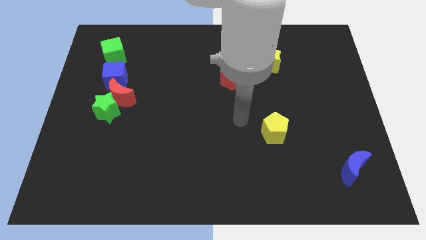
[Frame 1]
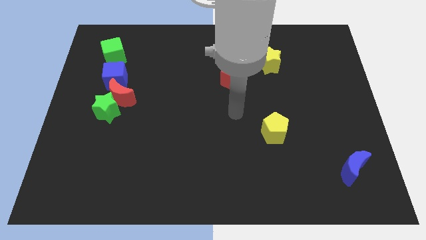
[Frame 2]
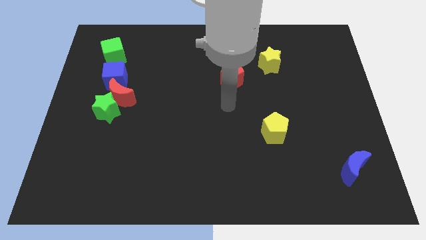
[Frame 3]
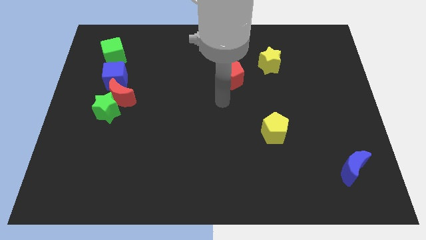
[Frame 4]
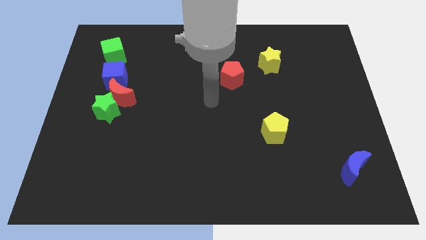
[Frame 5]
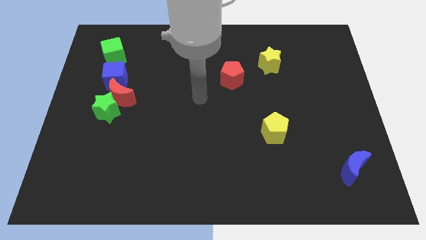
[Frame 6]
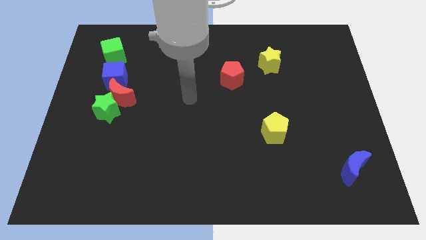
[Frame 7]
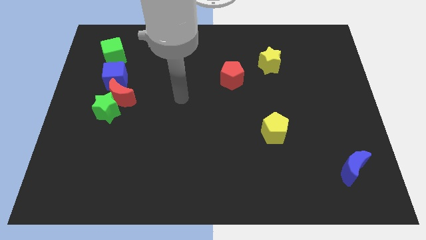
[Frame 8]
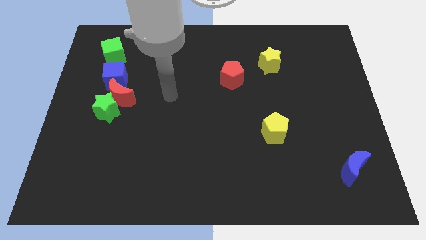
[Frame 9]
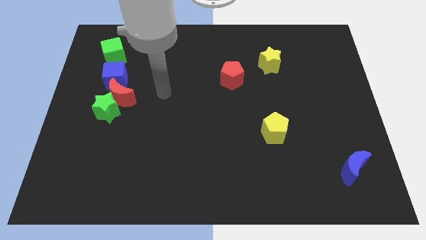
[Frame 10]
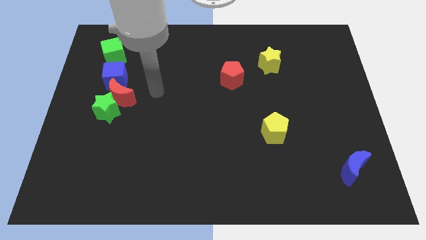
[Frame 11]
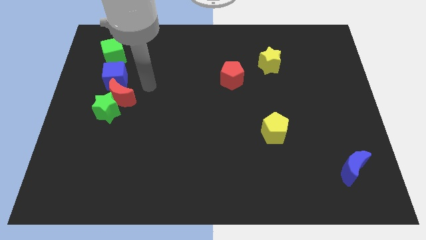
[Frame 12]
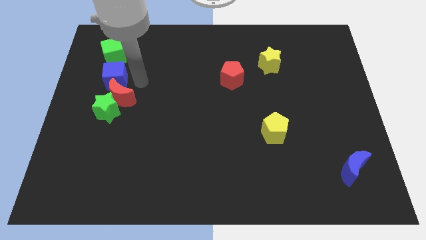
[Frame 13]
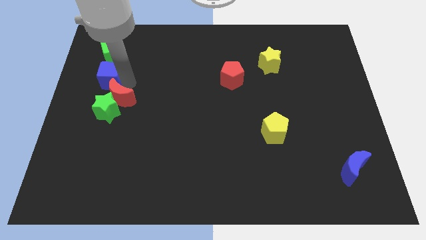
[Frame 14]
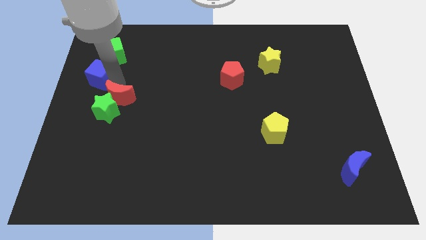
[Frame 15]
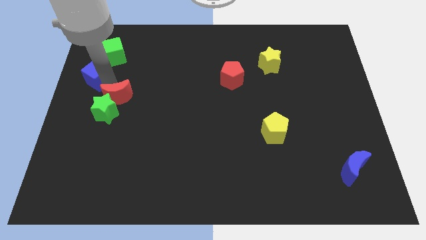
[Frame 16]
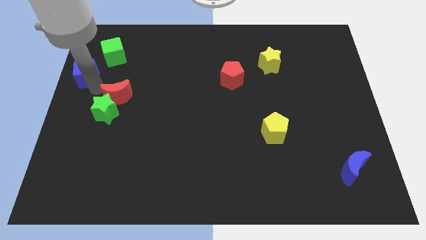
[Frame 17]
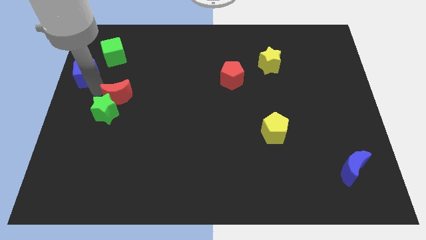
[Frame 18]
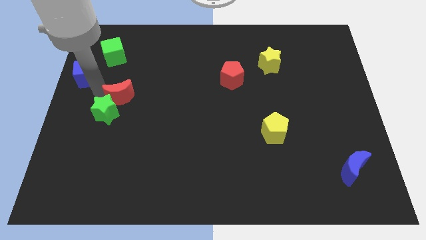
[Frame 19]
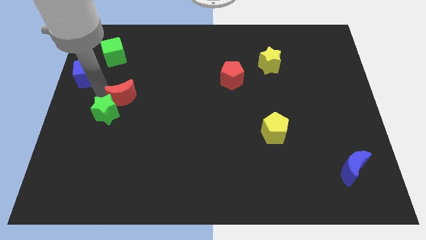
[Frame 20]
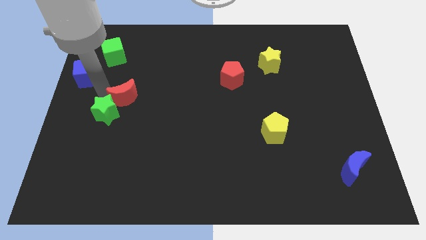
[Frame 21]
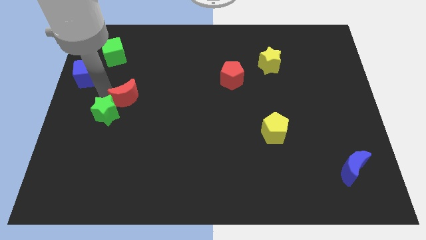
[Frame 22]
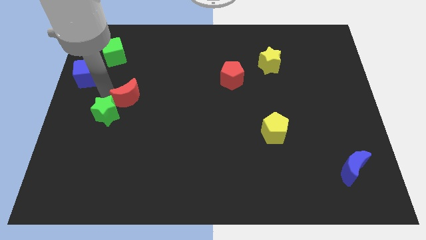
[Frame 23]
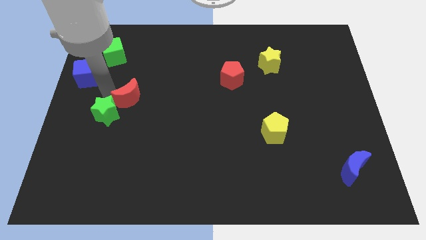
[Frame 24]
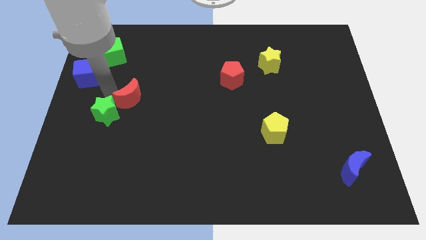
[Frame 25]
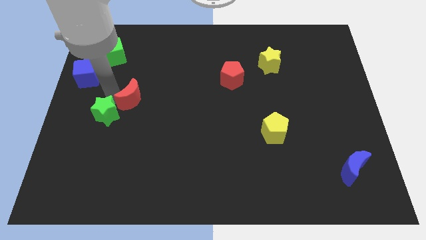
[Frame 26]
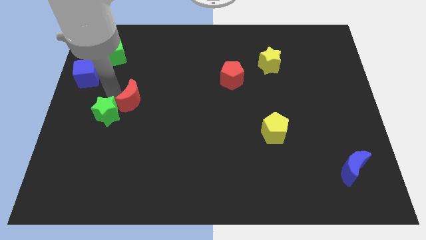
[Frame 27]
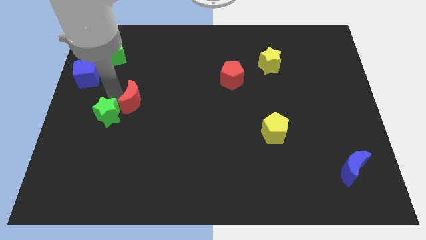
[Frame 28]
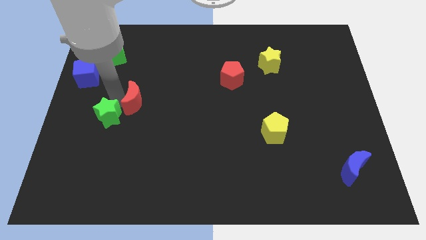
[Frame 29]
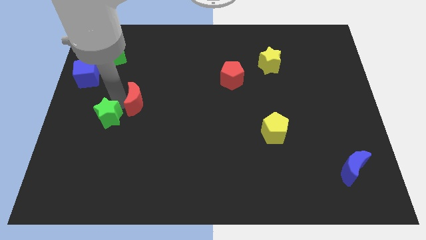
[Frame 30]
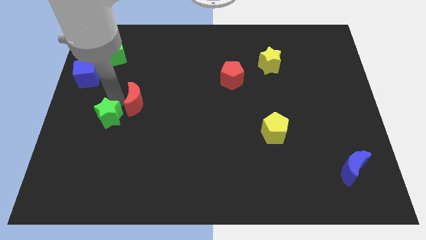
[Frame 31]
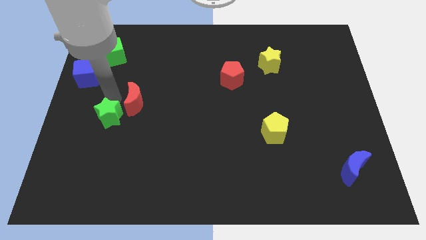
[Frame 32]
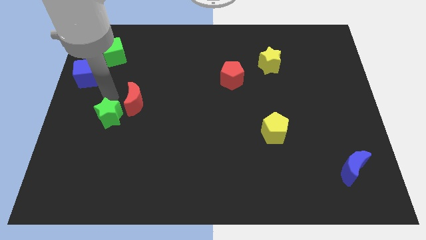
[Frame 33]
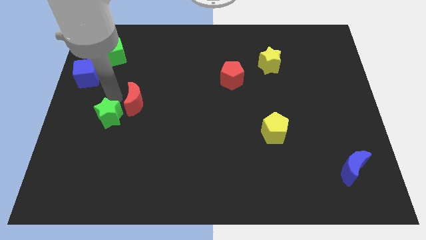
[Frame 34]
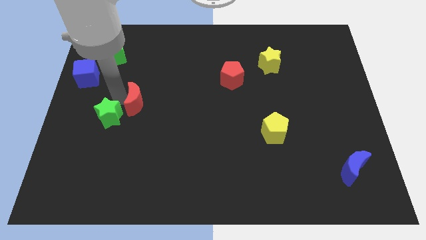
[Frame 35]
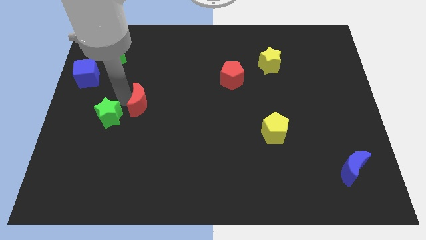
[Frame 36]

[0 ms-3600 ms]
move the red moon away from the green star and blue cube

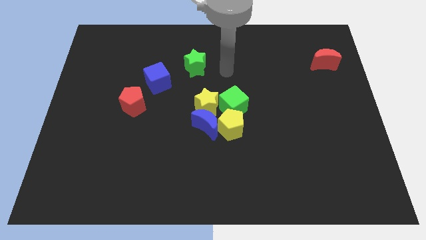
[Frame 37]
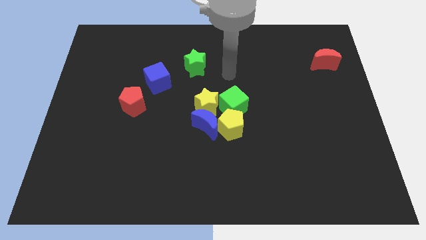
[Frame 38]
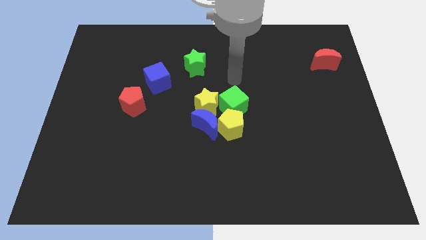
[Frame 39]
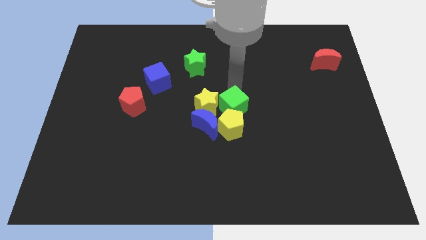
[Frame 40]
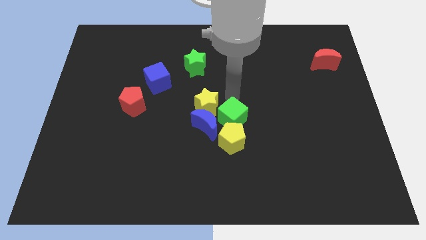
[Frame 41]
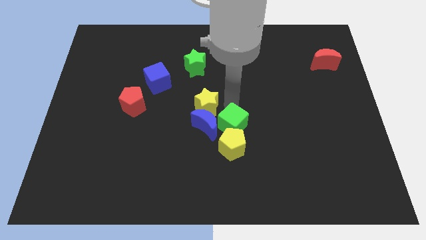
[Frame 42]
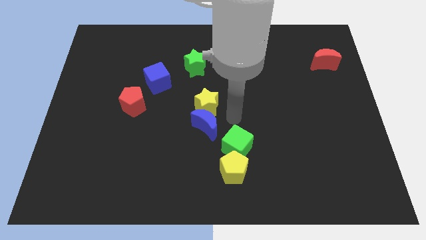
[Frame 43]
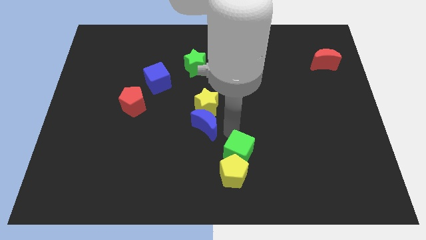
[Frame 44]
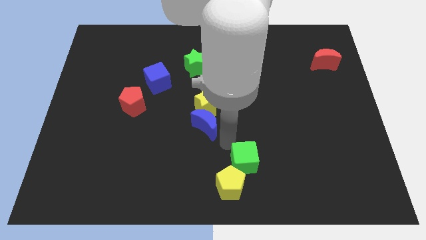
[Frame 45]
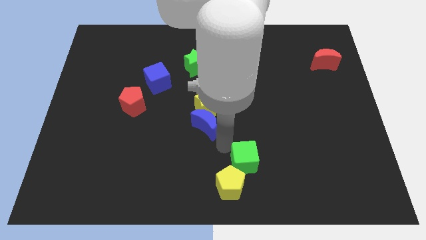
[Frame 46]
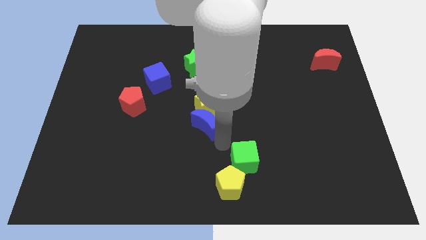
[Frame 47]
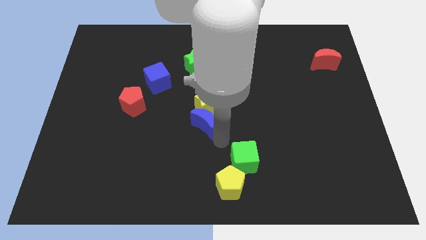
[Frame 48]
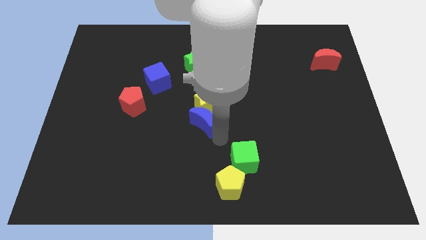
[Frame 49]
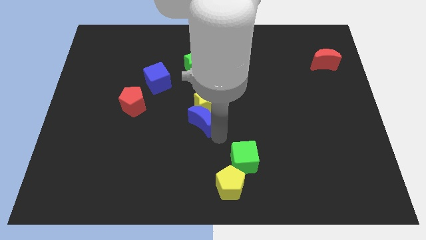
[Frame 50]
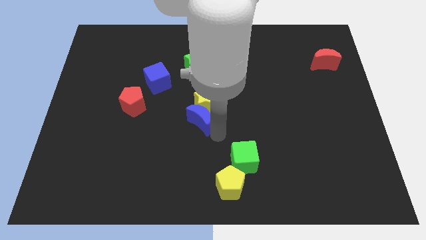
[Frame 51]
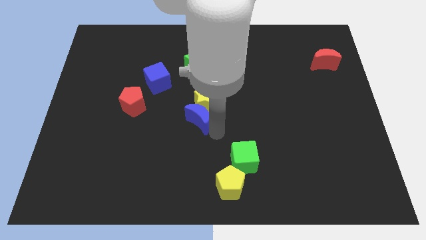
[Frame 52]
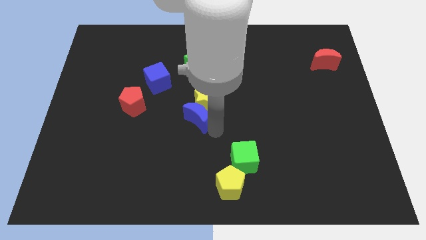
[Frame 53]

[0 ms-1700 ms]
pull the blue moon apart from the group

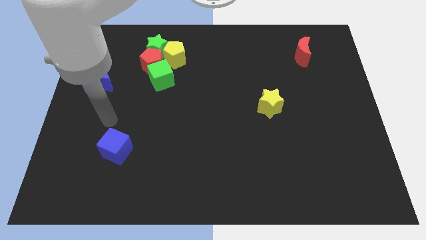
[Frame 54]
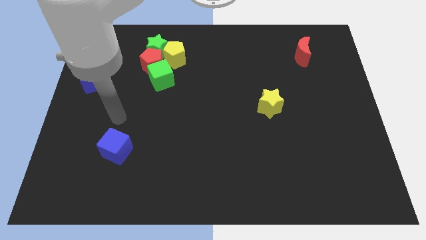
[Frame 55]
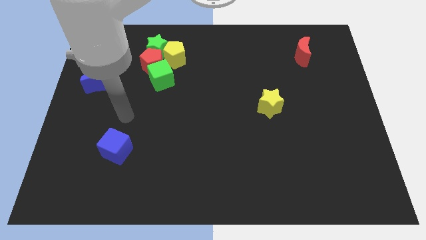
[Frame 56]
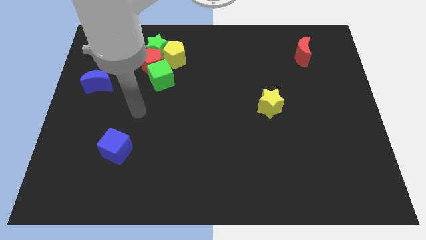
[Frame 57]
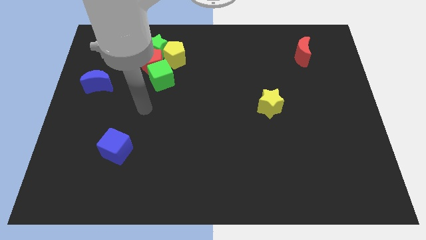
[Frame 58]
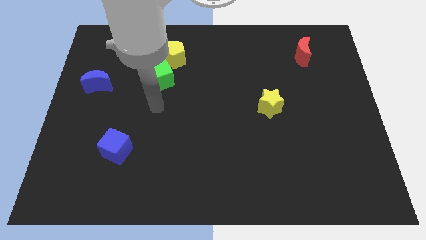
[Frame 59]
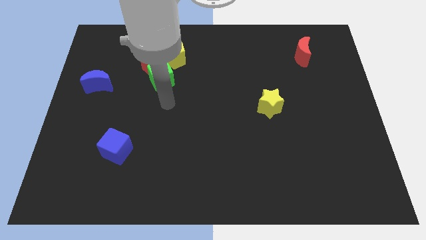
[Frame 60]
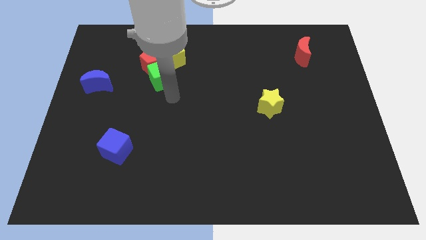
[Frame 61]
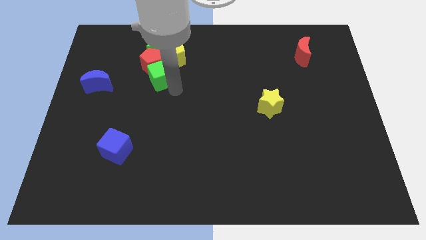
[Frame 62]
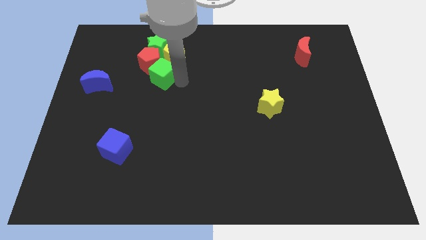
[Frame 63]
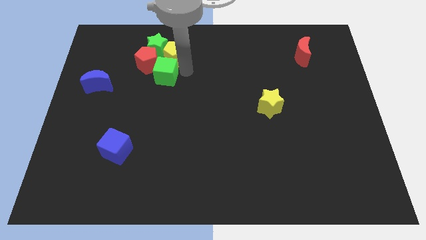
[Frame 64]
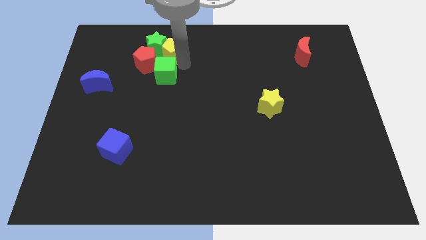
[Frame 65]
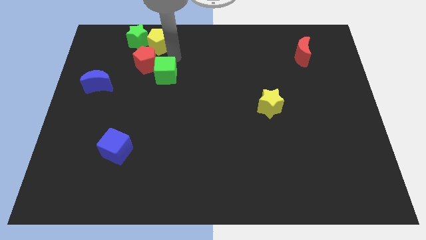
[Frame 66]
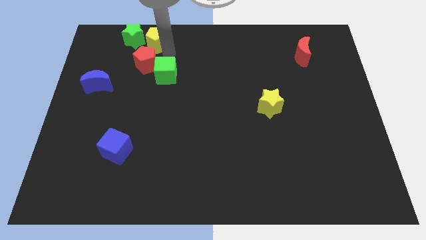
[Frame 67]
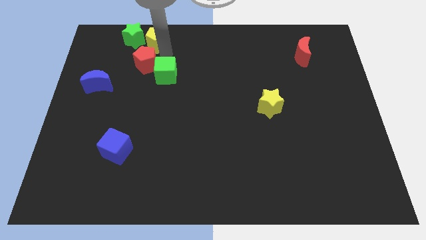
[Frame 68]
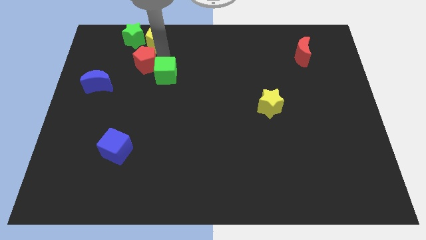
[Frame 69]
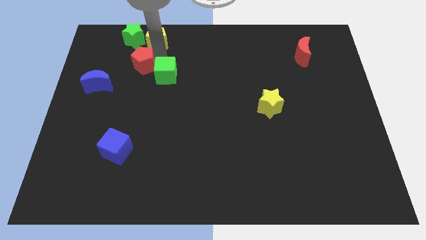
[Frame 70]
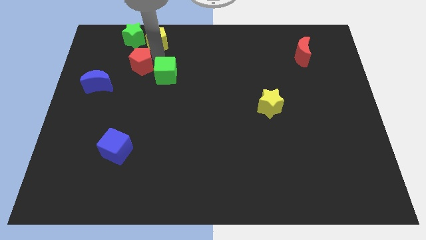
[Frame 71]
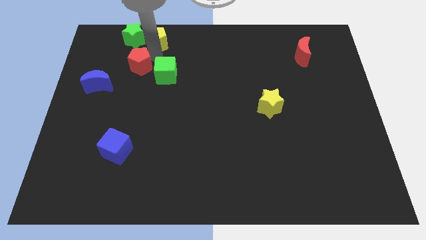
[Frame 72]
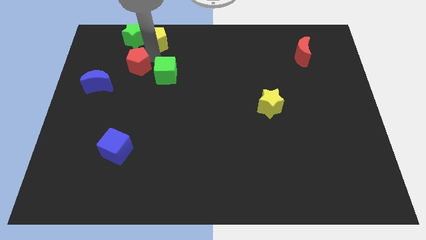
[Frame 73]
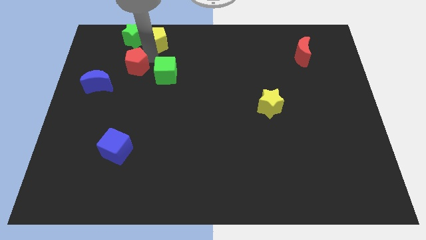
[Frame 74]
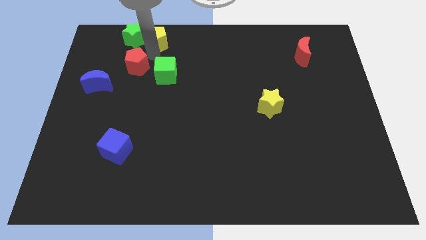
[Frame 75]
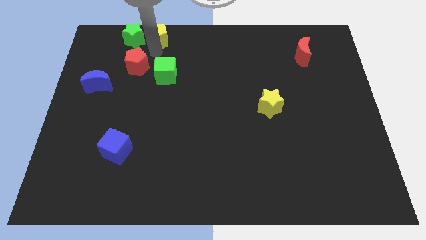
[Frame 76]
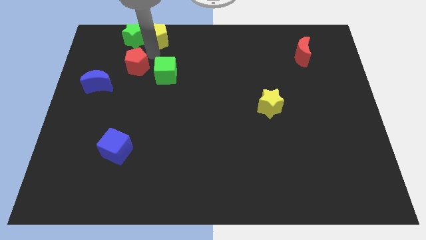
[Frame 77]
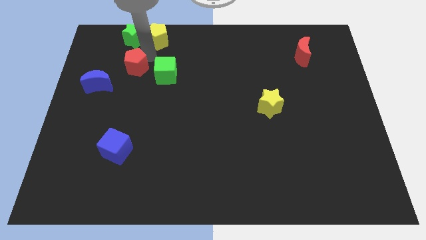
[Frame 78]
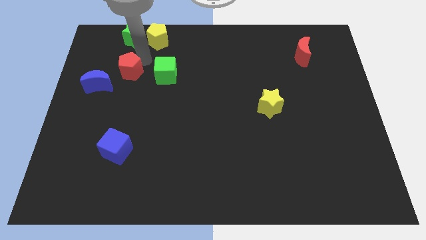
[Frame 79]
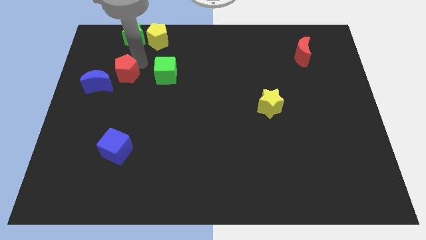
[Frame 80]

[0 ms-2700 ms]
separate the red pentagon from the green cube, green star, and yellow pentagon

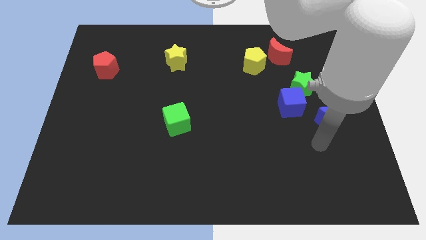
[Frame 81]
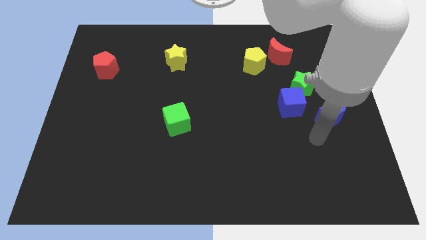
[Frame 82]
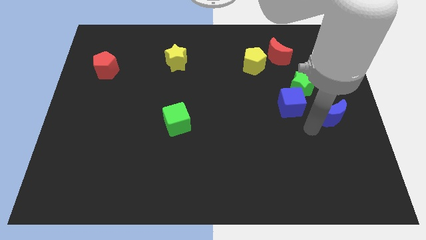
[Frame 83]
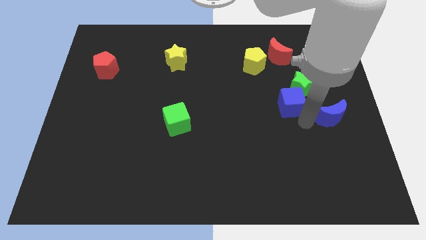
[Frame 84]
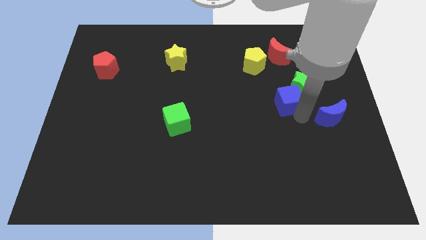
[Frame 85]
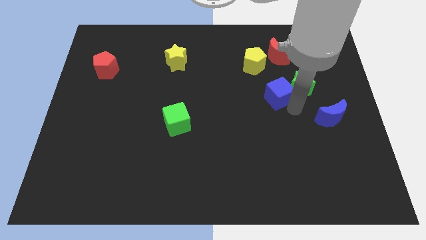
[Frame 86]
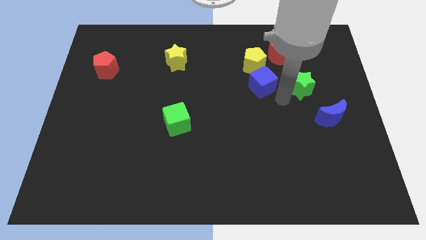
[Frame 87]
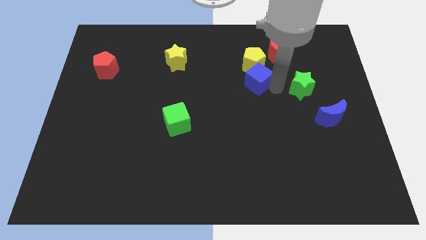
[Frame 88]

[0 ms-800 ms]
separate the green star from the blue cube

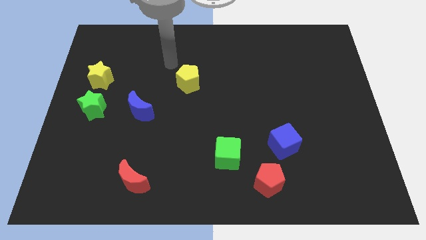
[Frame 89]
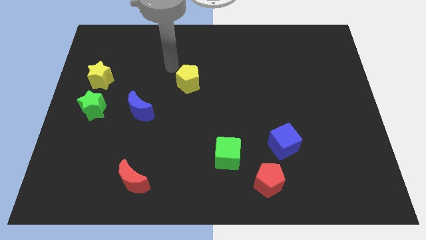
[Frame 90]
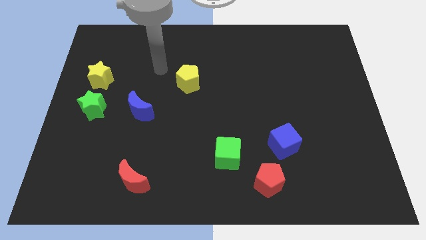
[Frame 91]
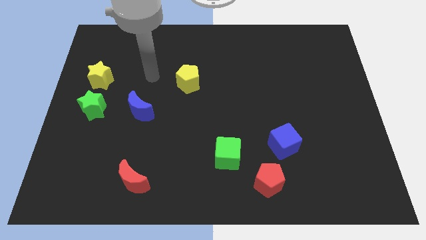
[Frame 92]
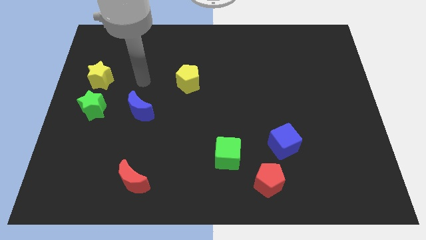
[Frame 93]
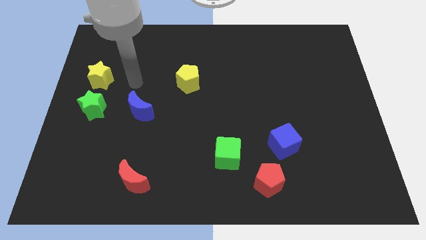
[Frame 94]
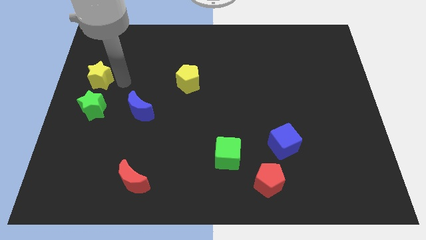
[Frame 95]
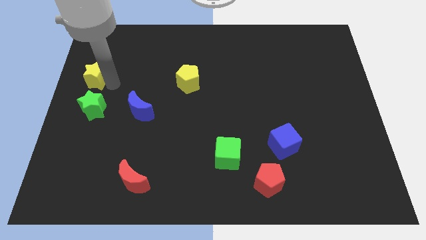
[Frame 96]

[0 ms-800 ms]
separate the green star from the yellow star
